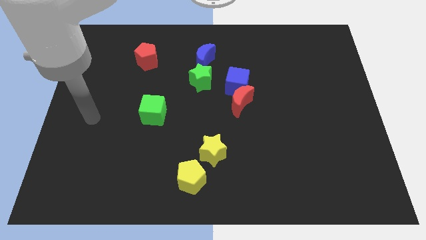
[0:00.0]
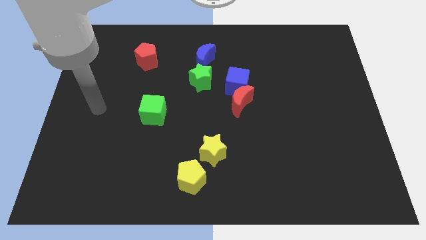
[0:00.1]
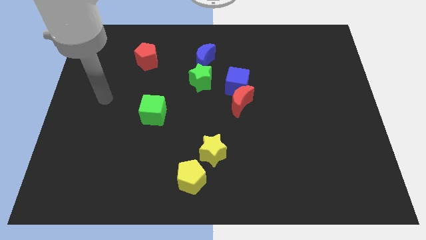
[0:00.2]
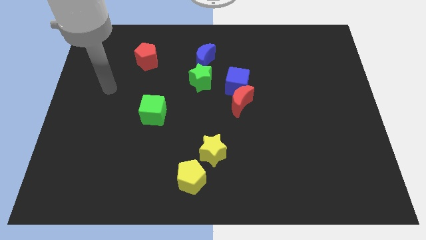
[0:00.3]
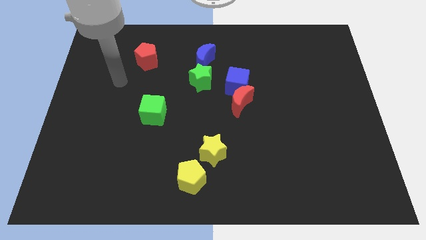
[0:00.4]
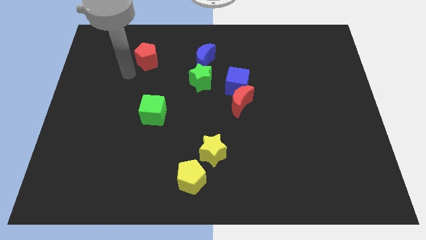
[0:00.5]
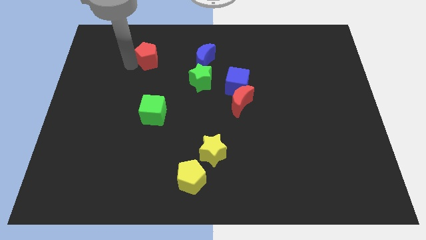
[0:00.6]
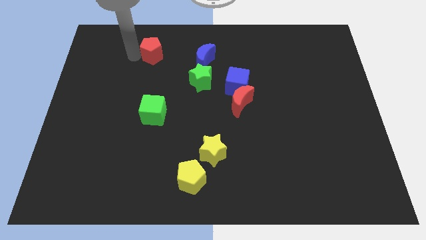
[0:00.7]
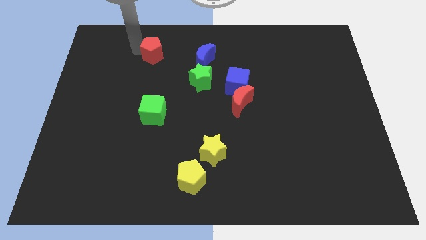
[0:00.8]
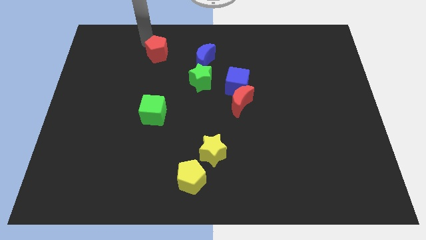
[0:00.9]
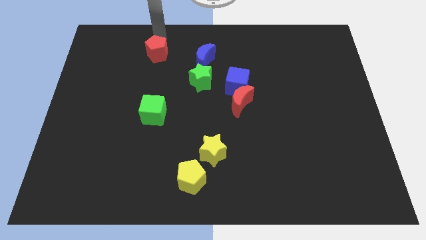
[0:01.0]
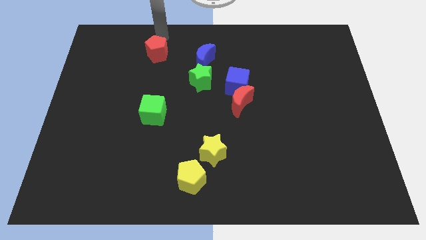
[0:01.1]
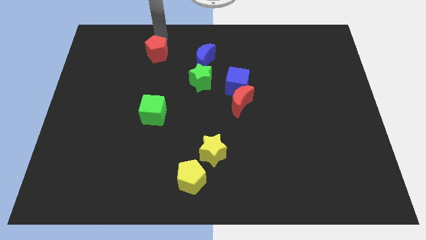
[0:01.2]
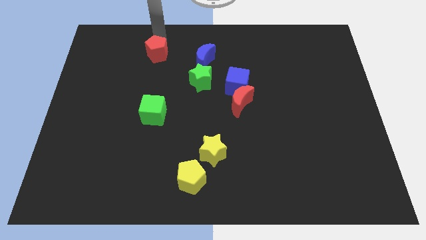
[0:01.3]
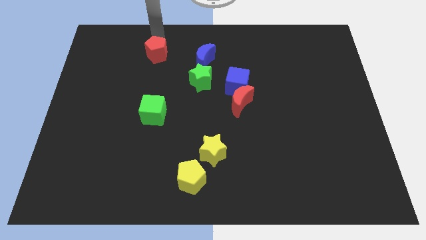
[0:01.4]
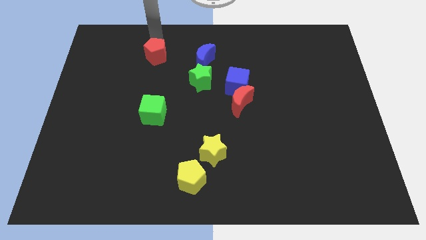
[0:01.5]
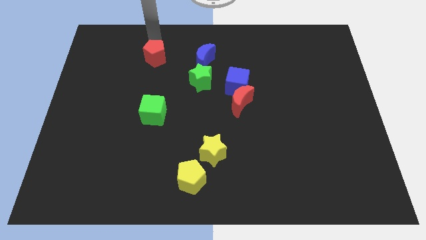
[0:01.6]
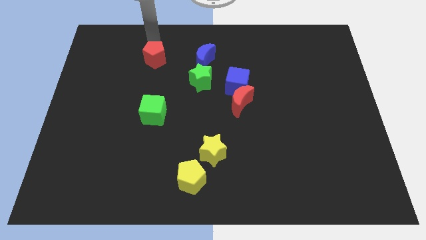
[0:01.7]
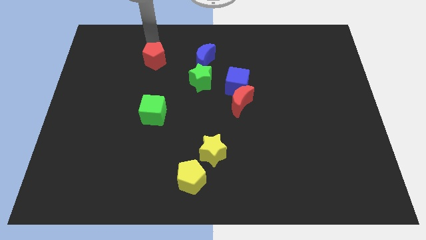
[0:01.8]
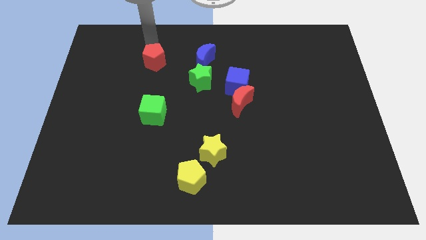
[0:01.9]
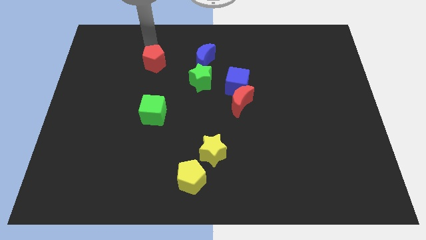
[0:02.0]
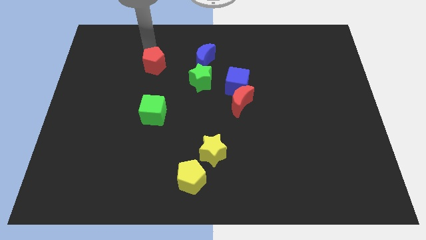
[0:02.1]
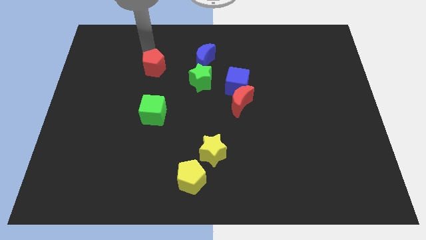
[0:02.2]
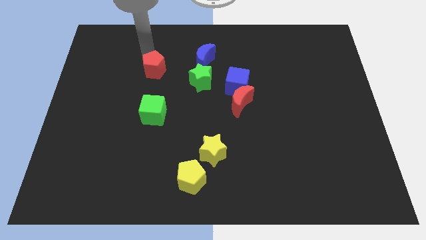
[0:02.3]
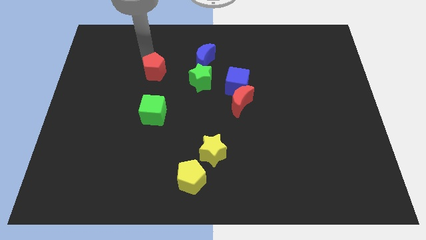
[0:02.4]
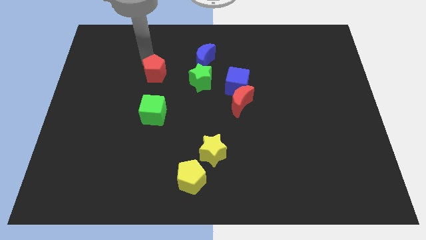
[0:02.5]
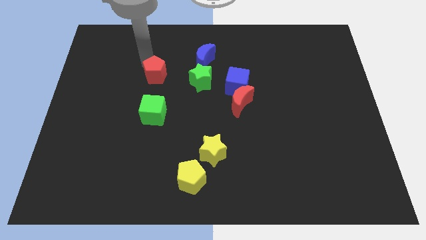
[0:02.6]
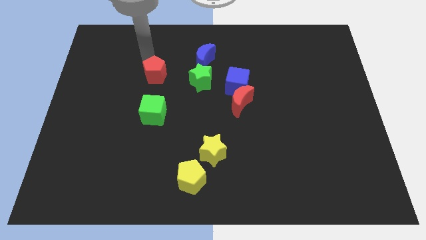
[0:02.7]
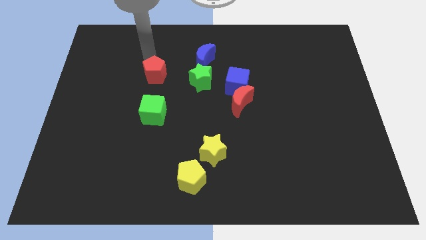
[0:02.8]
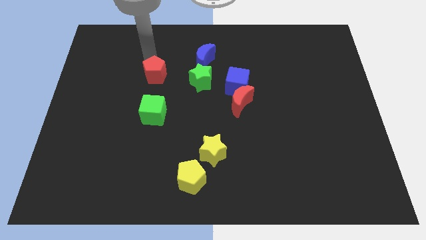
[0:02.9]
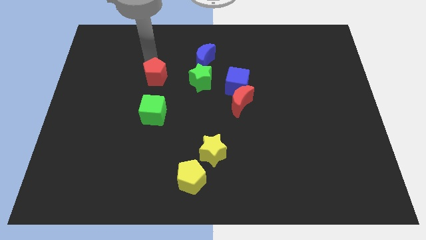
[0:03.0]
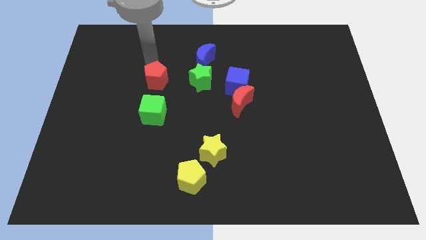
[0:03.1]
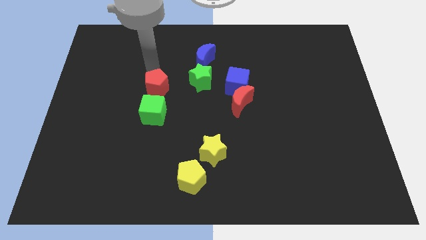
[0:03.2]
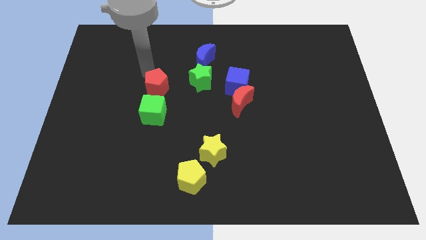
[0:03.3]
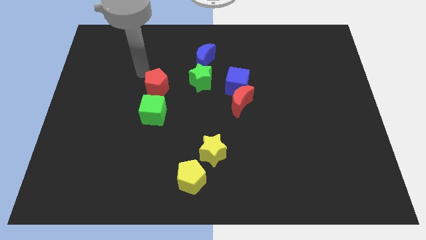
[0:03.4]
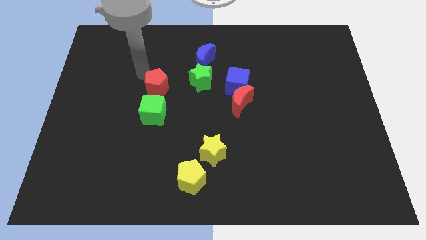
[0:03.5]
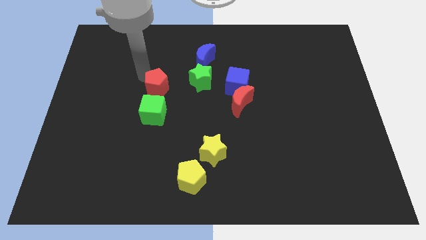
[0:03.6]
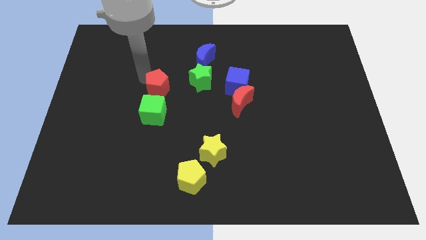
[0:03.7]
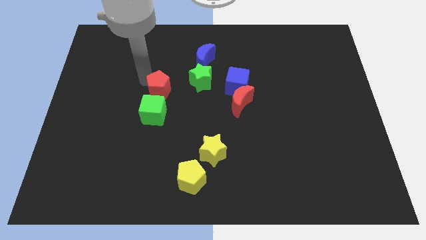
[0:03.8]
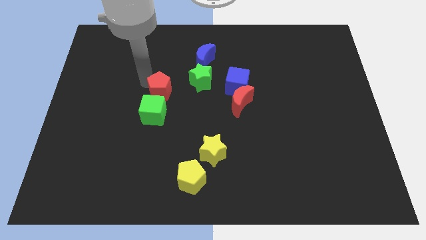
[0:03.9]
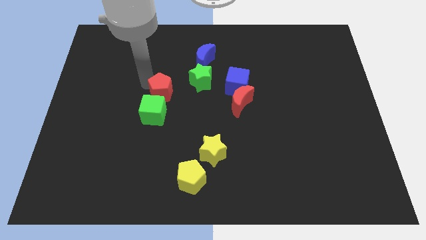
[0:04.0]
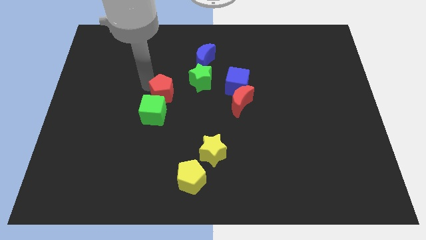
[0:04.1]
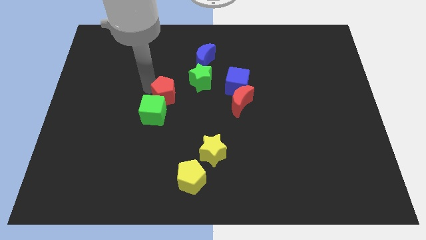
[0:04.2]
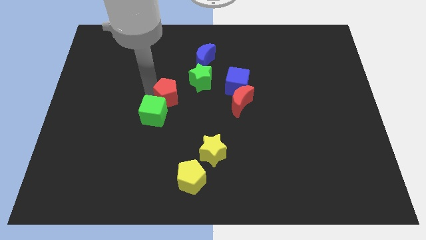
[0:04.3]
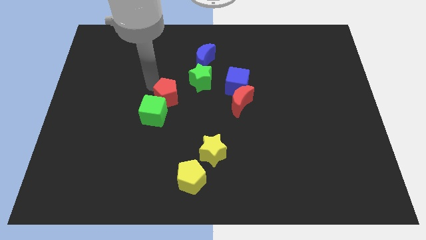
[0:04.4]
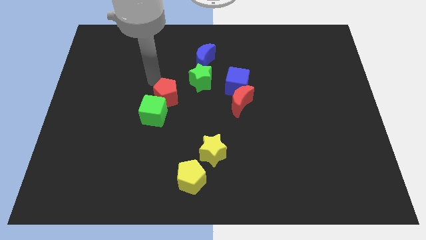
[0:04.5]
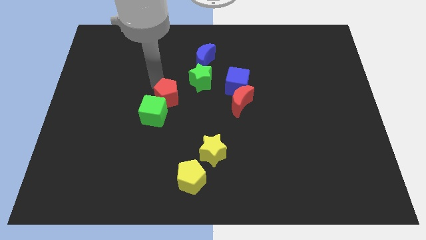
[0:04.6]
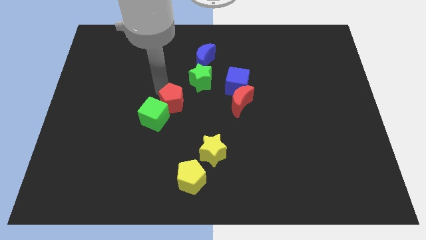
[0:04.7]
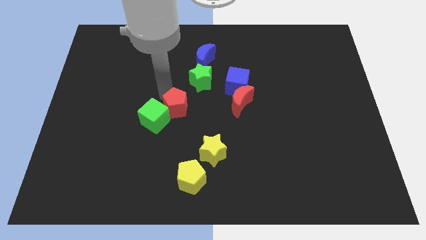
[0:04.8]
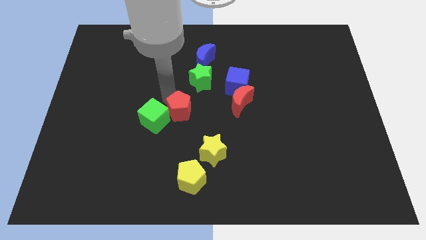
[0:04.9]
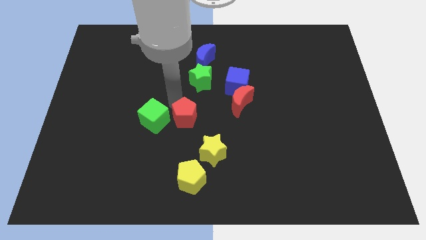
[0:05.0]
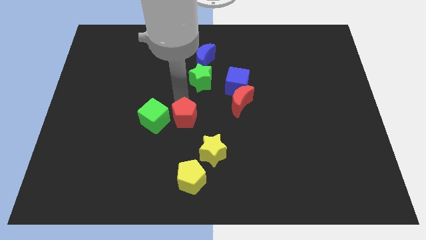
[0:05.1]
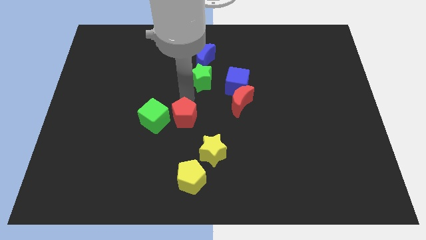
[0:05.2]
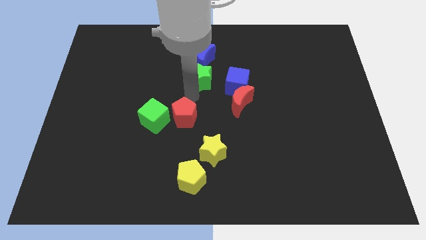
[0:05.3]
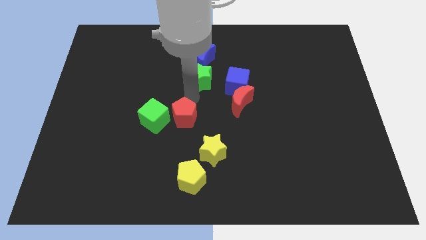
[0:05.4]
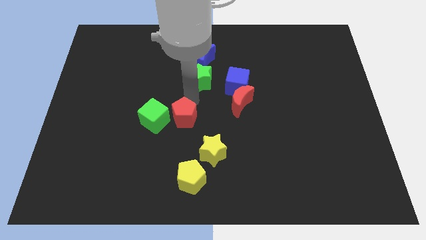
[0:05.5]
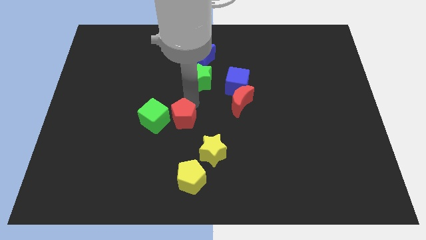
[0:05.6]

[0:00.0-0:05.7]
slide the red pentagon to the bottom right of the green cube

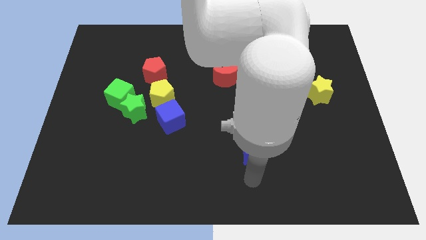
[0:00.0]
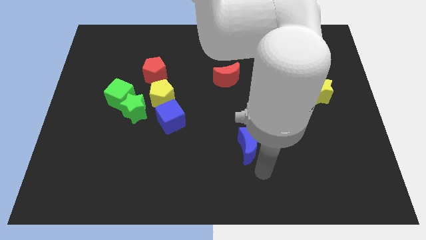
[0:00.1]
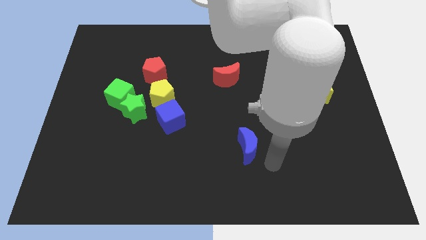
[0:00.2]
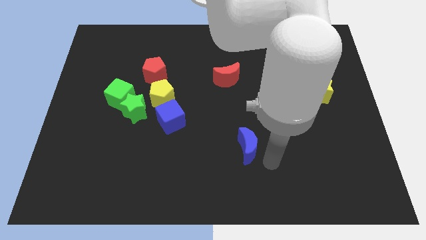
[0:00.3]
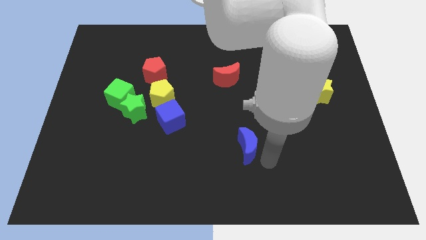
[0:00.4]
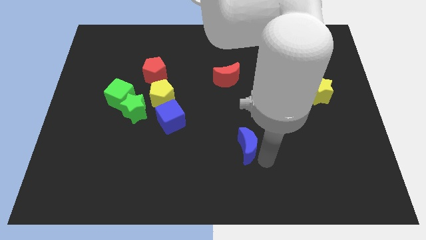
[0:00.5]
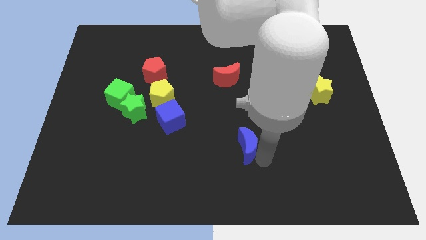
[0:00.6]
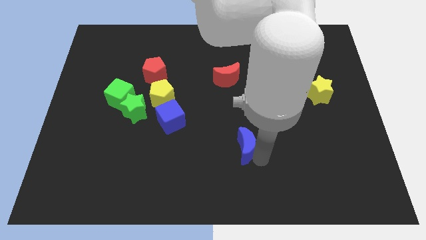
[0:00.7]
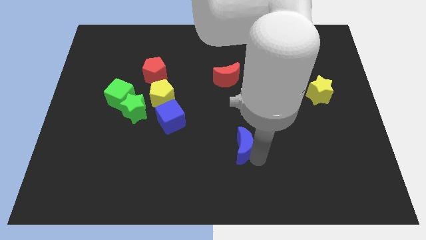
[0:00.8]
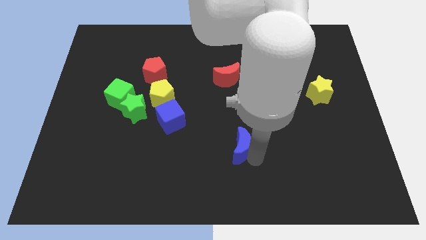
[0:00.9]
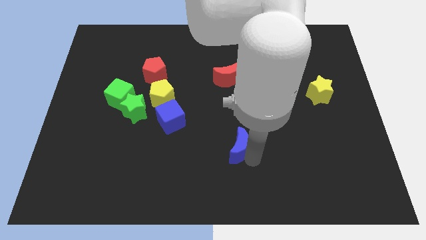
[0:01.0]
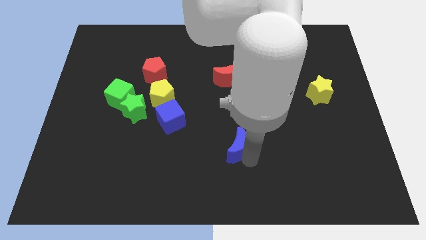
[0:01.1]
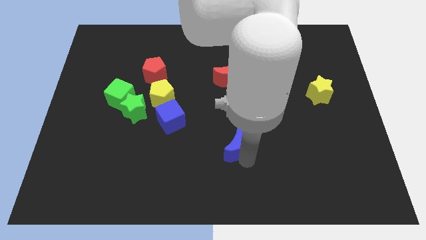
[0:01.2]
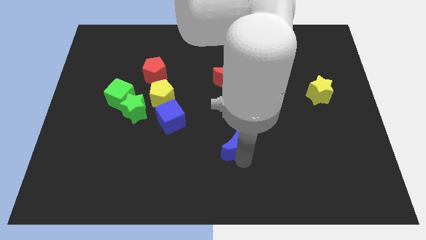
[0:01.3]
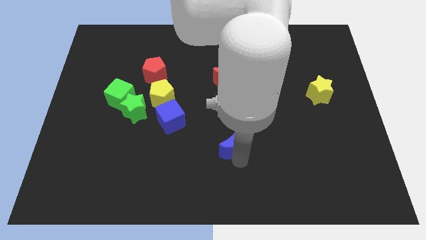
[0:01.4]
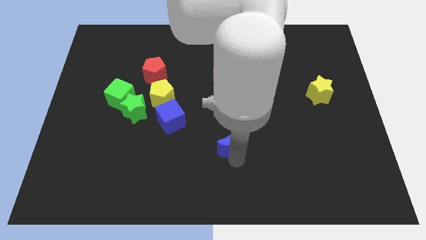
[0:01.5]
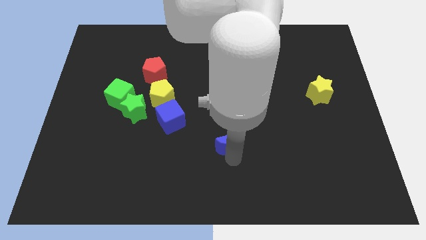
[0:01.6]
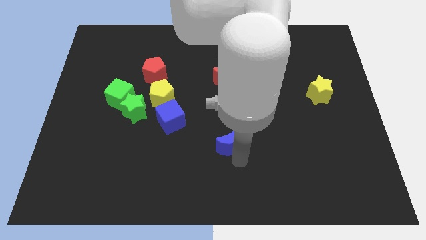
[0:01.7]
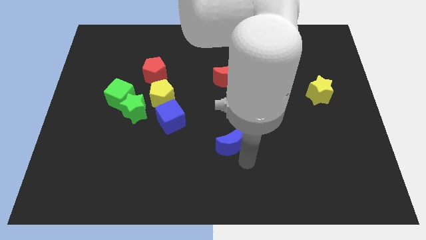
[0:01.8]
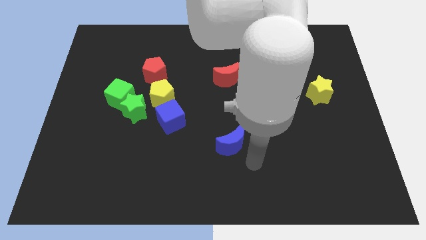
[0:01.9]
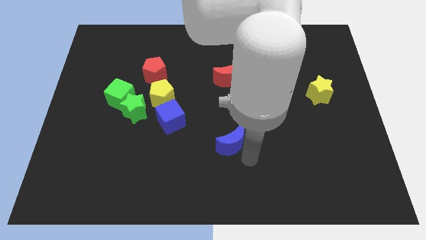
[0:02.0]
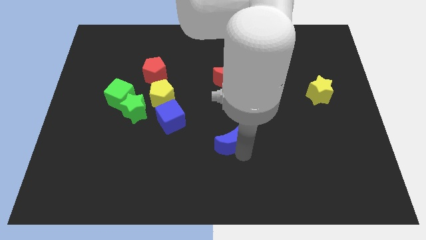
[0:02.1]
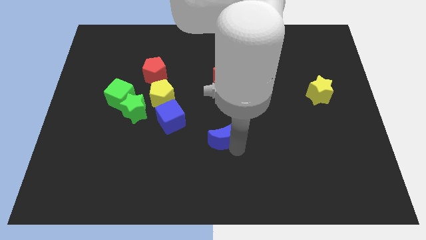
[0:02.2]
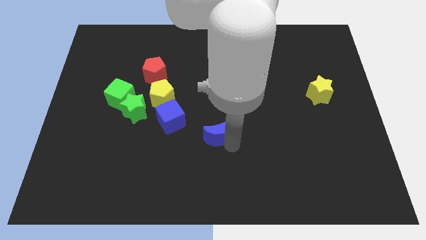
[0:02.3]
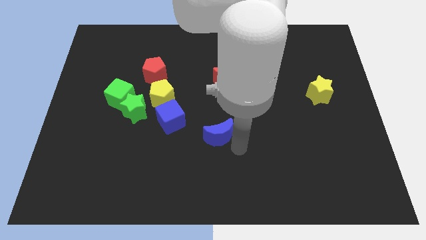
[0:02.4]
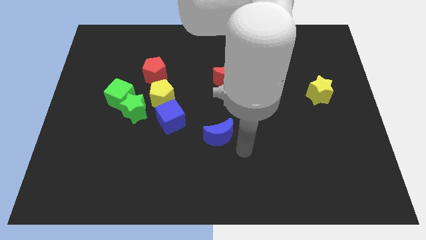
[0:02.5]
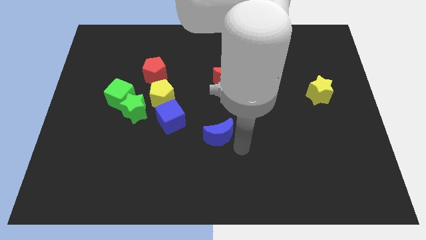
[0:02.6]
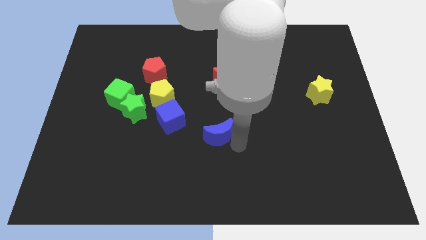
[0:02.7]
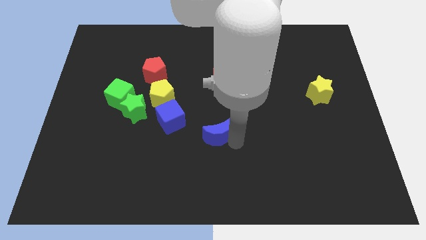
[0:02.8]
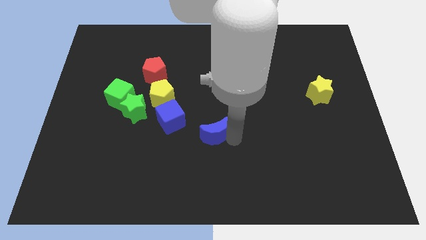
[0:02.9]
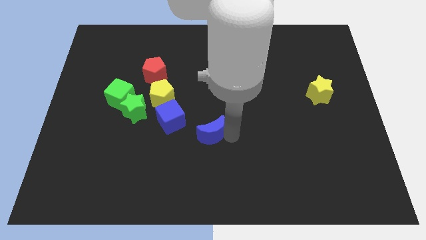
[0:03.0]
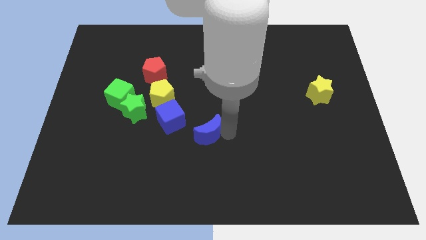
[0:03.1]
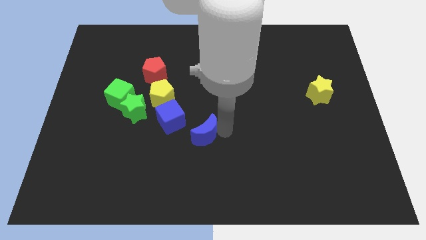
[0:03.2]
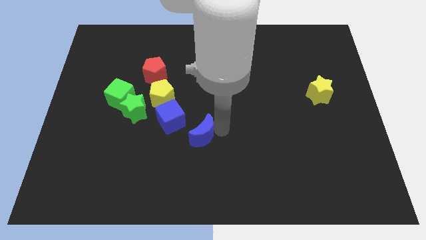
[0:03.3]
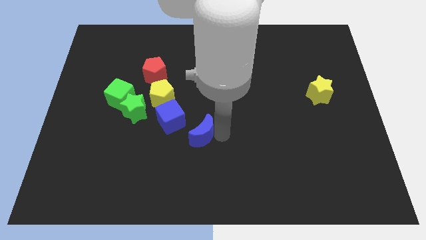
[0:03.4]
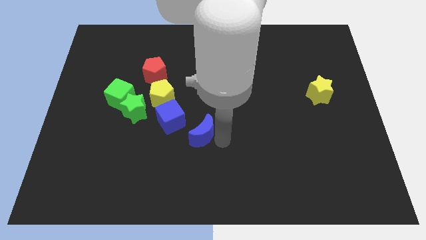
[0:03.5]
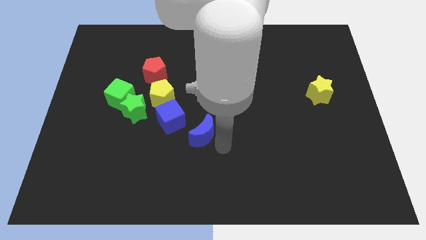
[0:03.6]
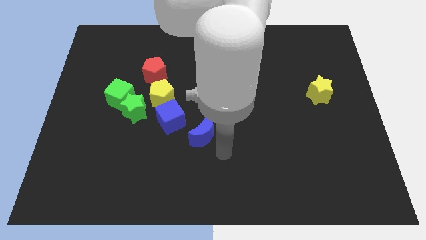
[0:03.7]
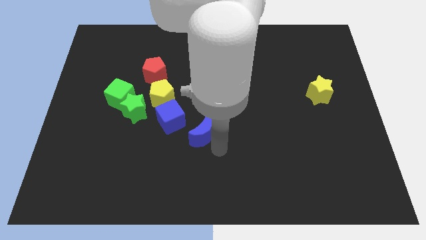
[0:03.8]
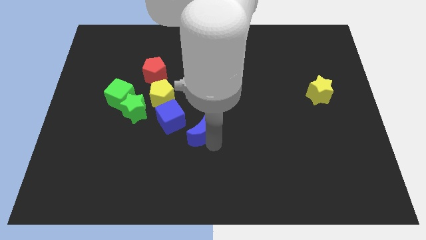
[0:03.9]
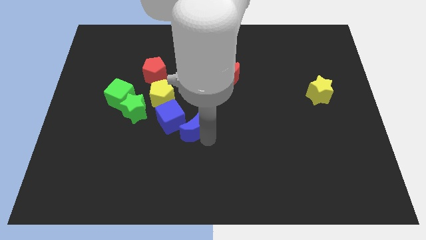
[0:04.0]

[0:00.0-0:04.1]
move the blue moon to the bottom right side of the yellow pentagon
